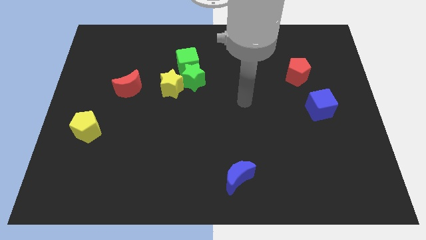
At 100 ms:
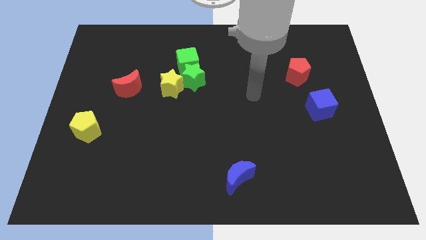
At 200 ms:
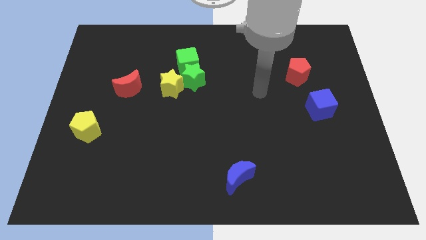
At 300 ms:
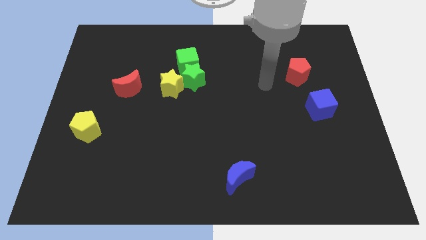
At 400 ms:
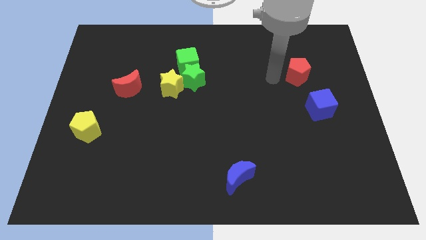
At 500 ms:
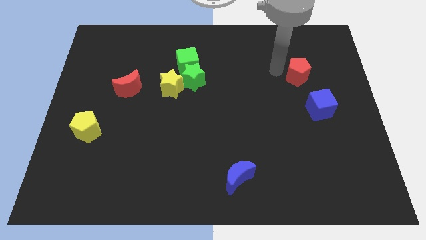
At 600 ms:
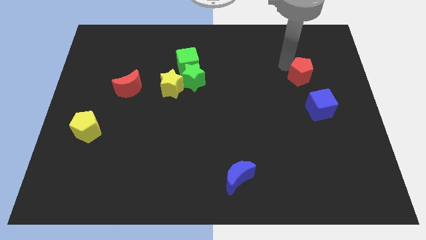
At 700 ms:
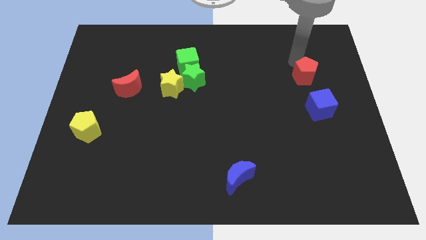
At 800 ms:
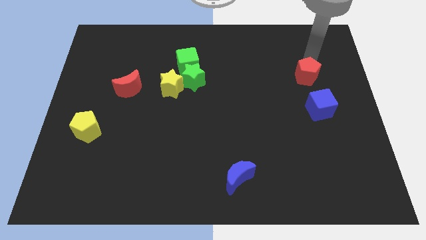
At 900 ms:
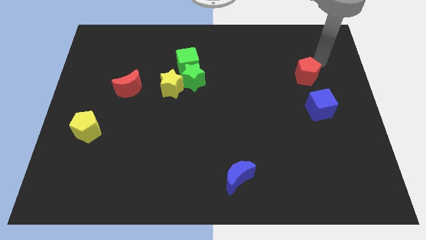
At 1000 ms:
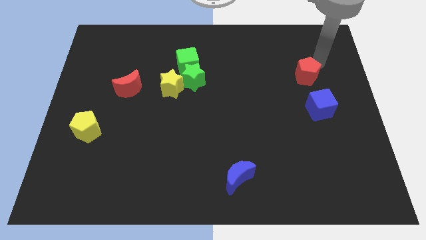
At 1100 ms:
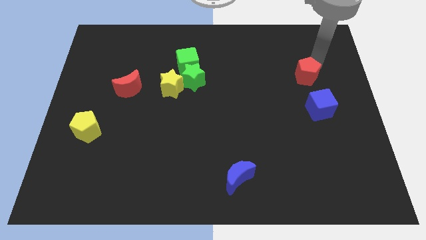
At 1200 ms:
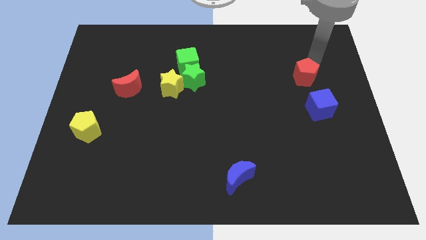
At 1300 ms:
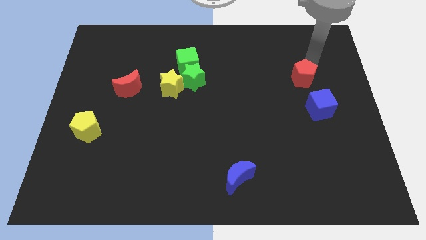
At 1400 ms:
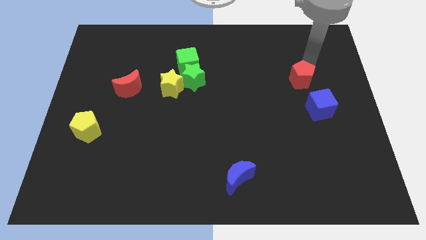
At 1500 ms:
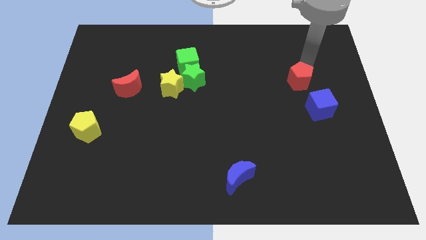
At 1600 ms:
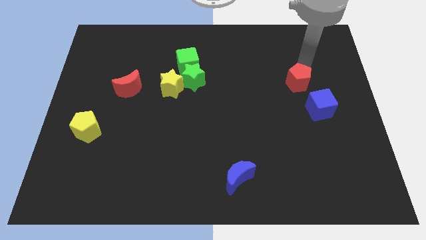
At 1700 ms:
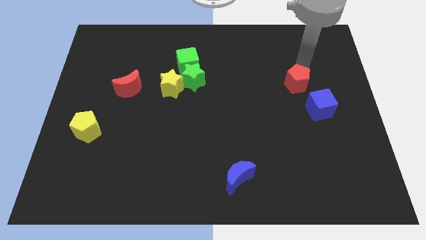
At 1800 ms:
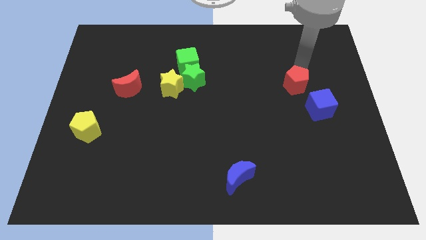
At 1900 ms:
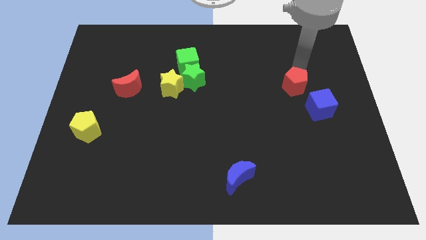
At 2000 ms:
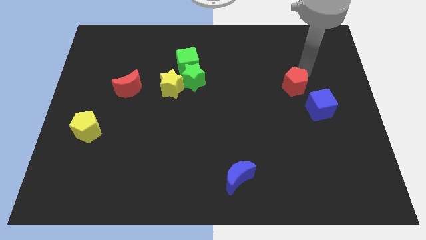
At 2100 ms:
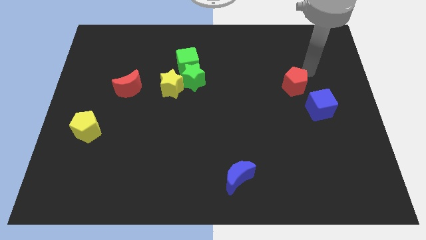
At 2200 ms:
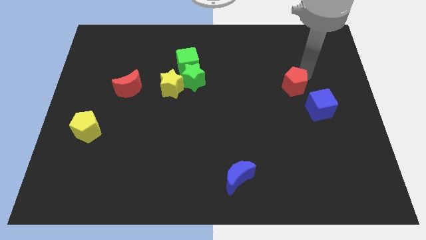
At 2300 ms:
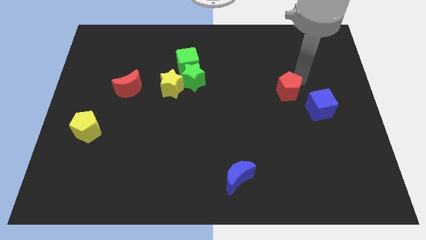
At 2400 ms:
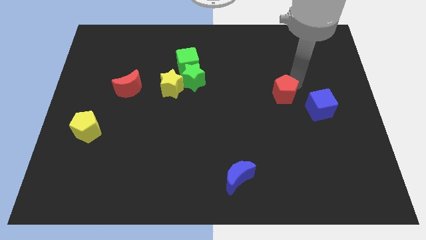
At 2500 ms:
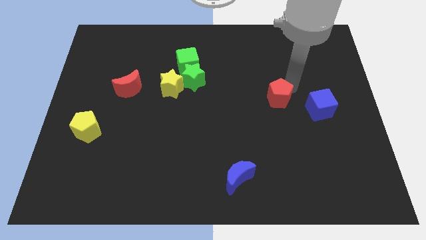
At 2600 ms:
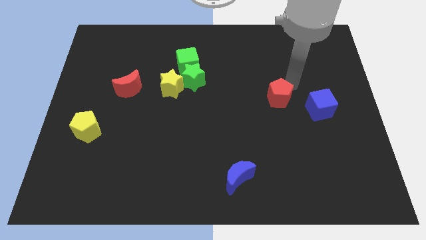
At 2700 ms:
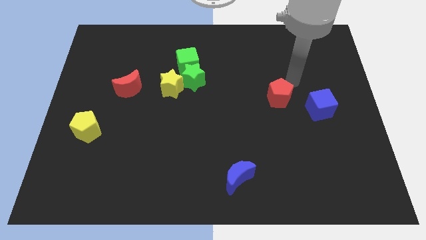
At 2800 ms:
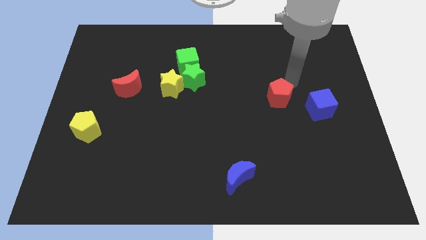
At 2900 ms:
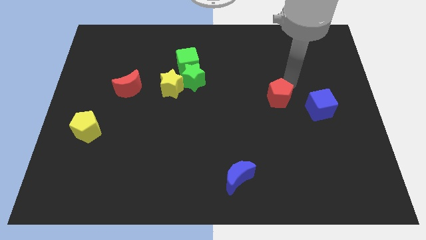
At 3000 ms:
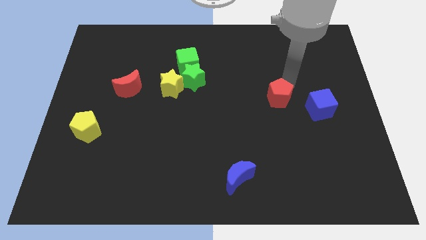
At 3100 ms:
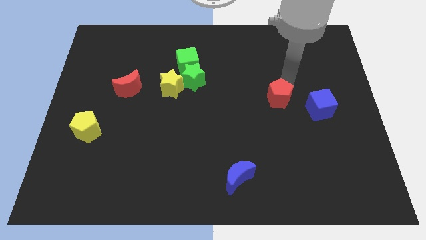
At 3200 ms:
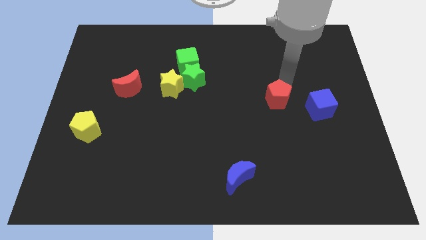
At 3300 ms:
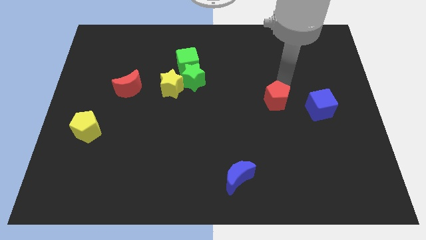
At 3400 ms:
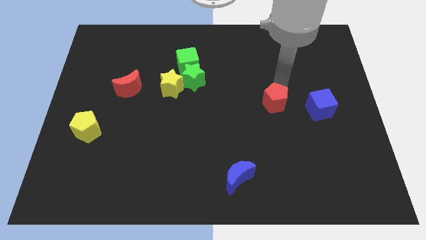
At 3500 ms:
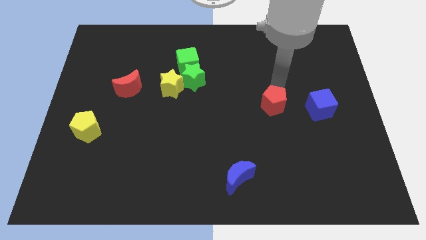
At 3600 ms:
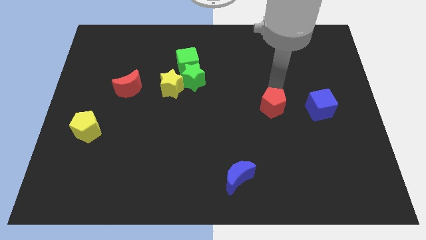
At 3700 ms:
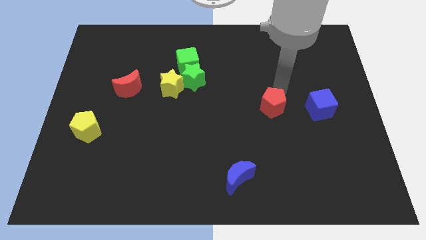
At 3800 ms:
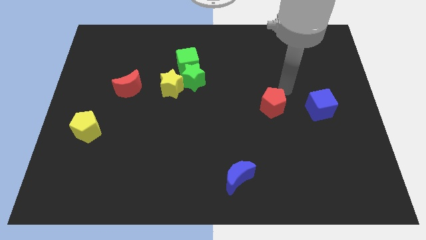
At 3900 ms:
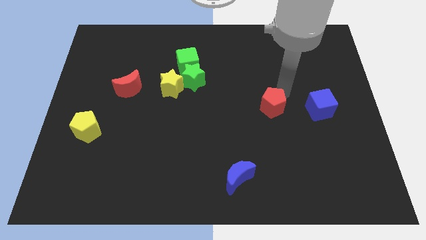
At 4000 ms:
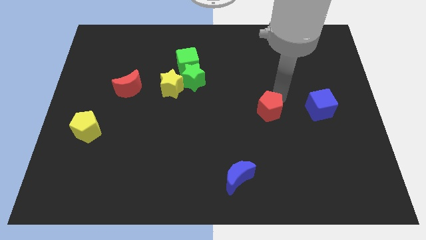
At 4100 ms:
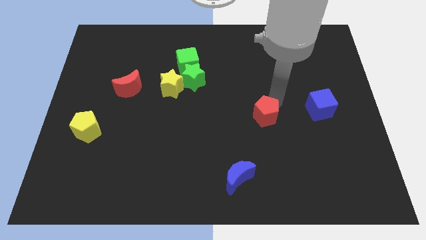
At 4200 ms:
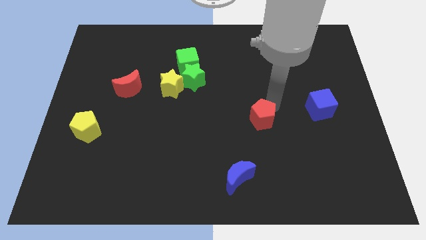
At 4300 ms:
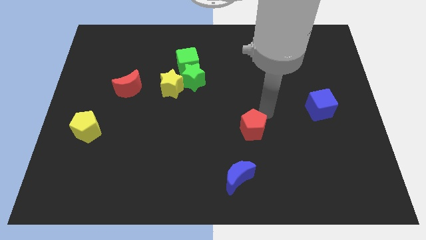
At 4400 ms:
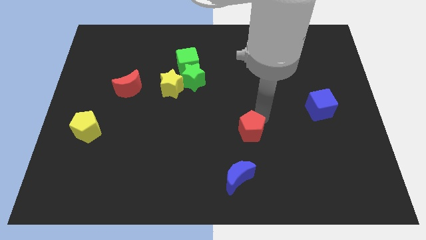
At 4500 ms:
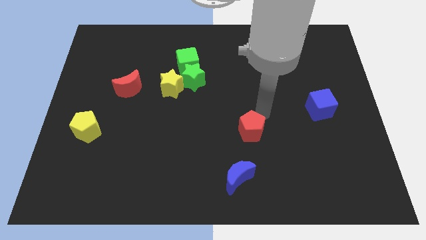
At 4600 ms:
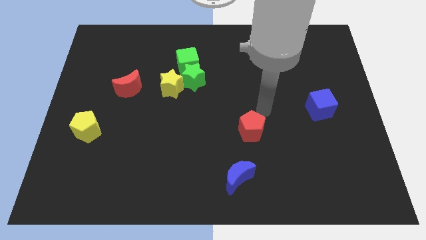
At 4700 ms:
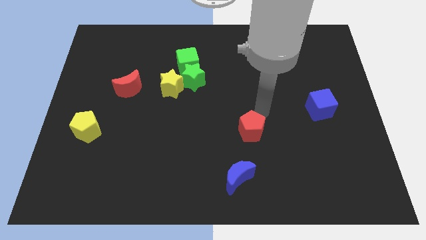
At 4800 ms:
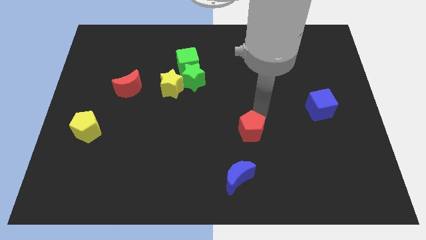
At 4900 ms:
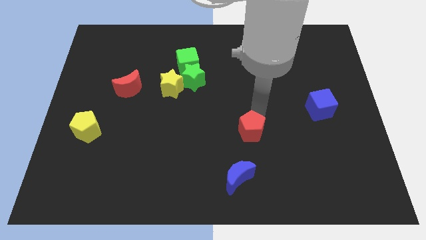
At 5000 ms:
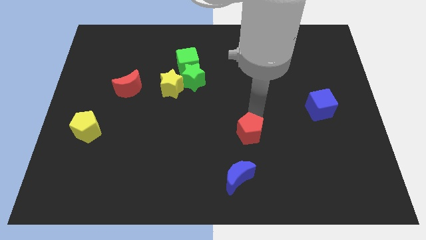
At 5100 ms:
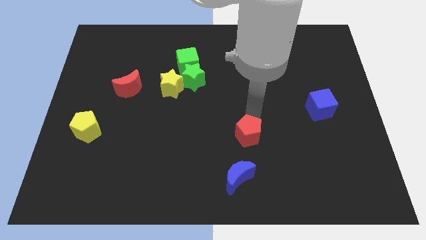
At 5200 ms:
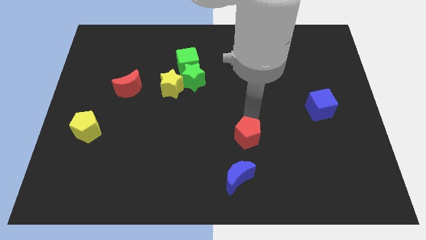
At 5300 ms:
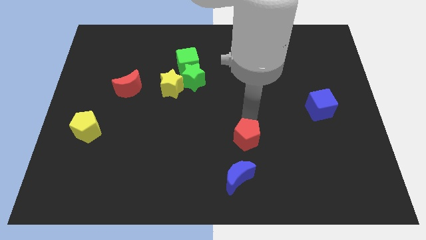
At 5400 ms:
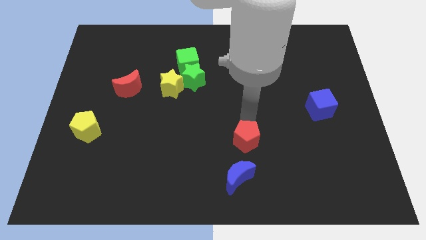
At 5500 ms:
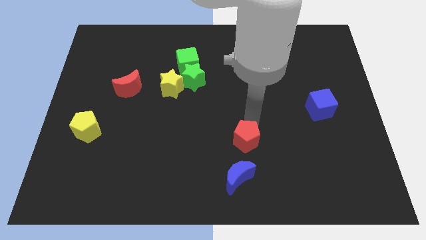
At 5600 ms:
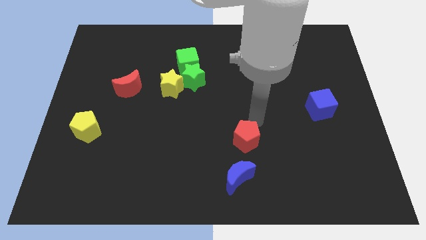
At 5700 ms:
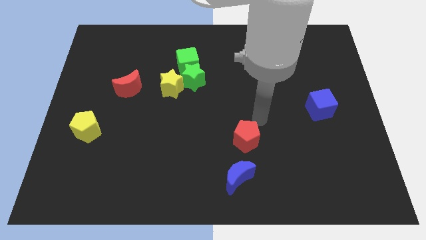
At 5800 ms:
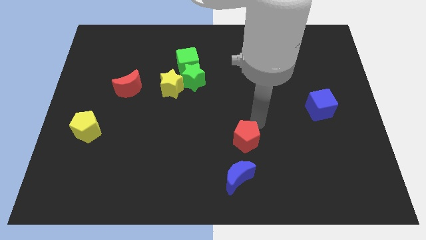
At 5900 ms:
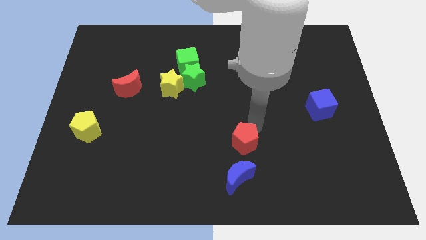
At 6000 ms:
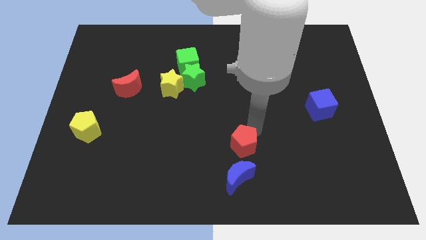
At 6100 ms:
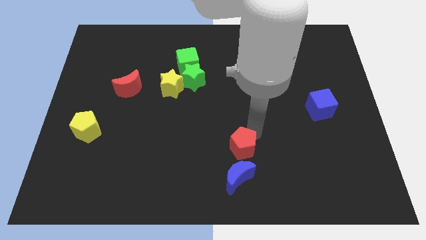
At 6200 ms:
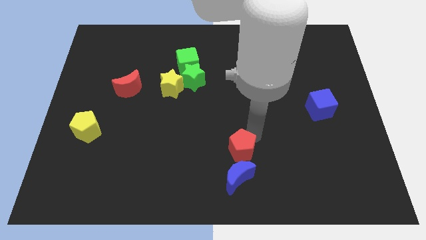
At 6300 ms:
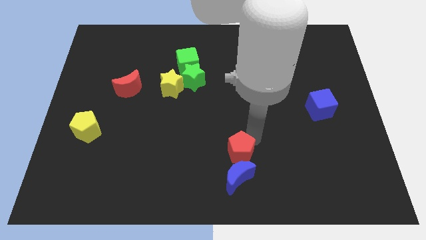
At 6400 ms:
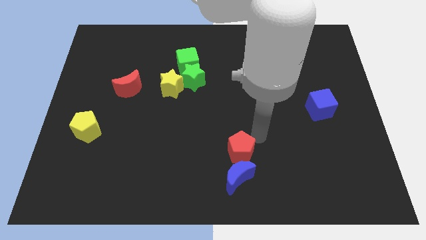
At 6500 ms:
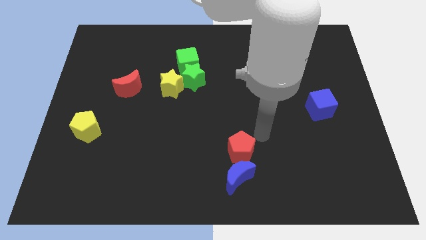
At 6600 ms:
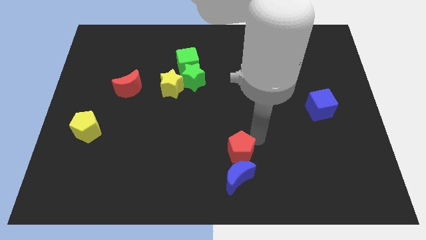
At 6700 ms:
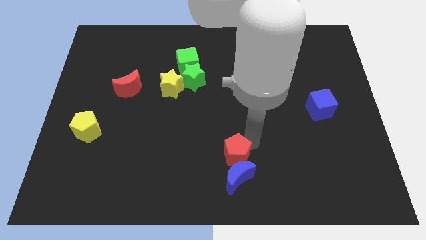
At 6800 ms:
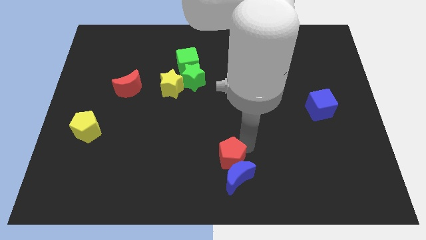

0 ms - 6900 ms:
slide the red pentagon to the bottom
